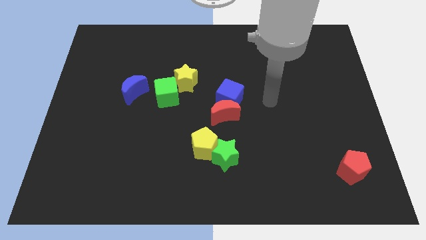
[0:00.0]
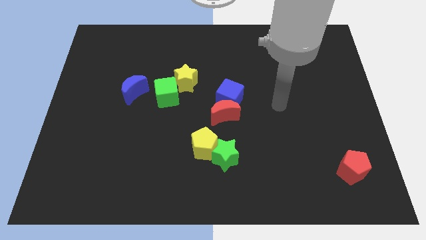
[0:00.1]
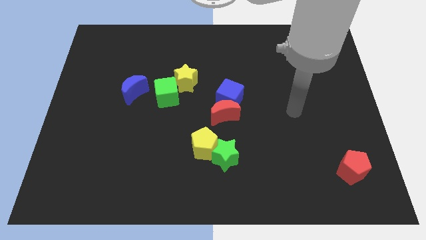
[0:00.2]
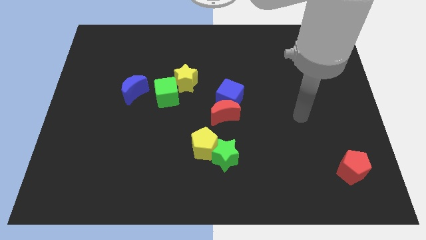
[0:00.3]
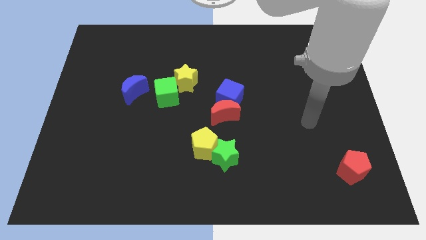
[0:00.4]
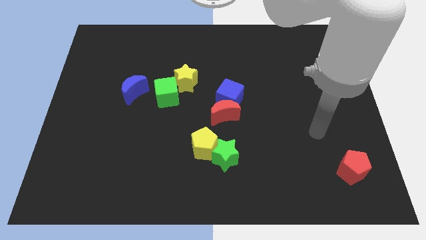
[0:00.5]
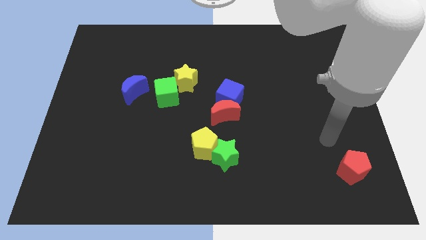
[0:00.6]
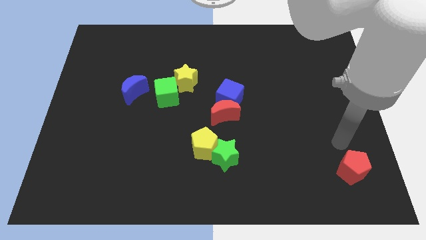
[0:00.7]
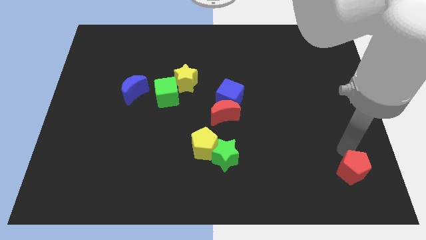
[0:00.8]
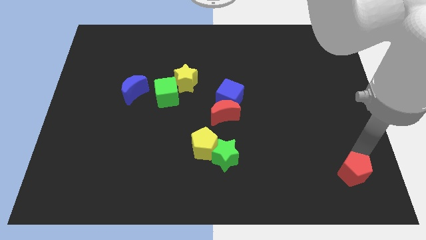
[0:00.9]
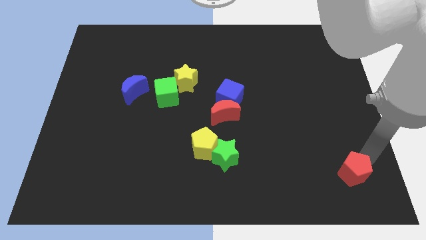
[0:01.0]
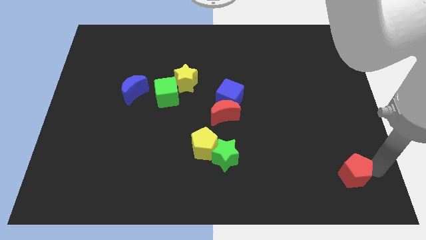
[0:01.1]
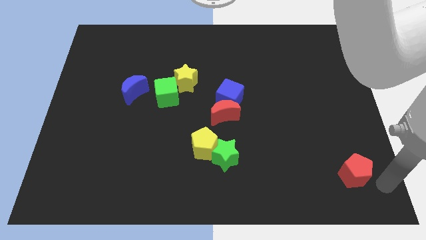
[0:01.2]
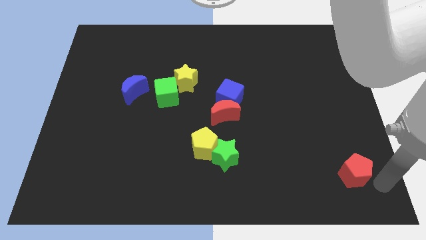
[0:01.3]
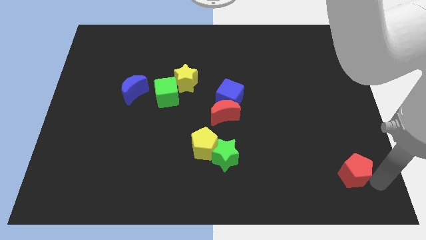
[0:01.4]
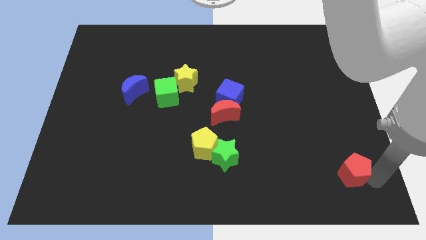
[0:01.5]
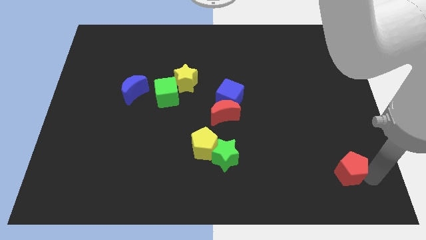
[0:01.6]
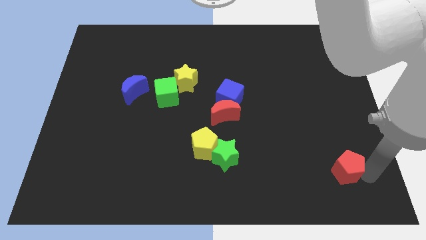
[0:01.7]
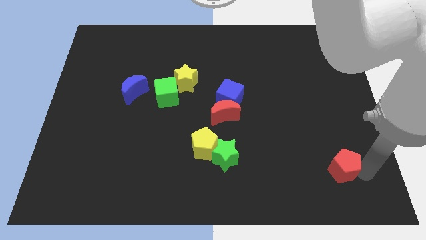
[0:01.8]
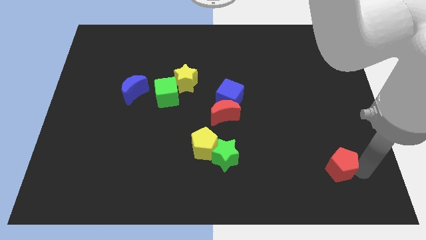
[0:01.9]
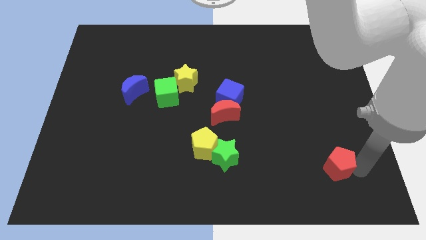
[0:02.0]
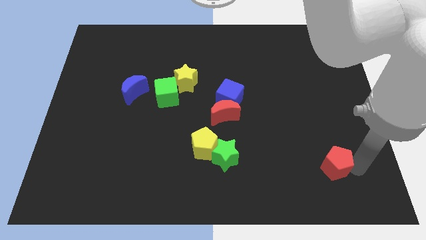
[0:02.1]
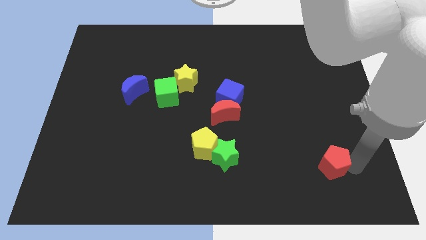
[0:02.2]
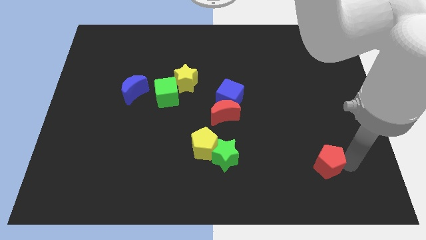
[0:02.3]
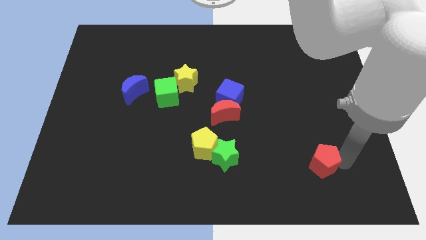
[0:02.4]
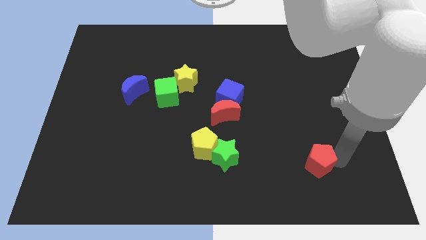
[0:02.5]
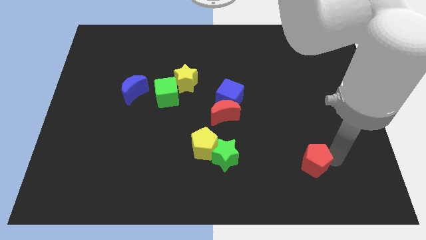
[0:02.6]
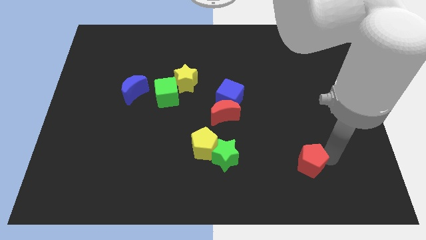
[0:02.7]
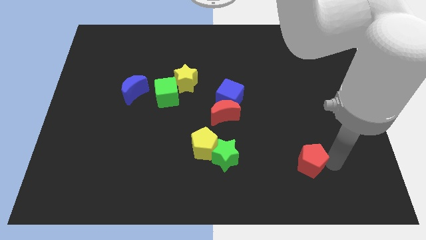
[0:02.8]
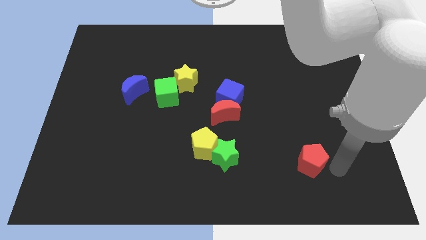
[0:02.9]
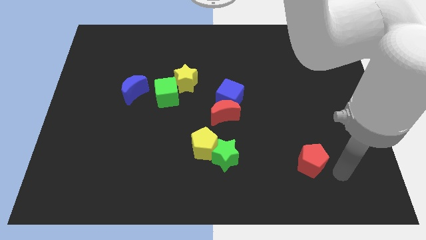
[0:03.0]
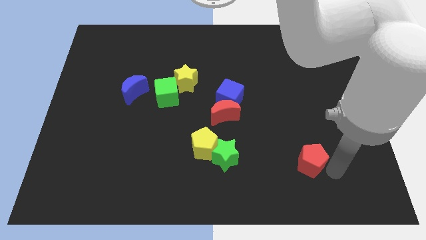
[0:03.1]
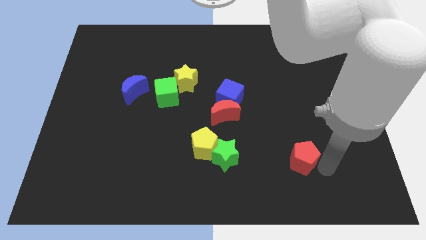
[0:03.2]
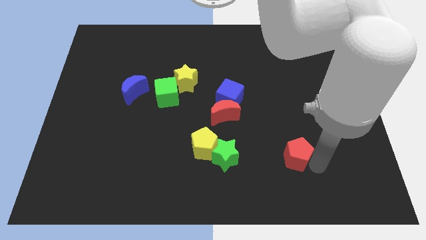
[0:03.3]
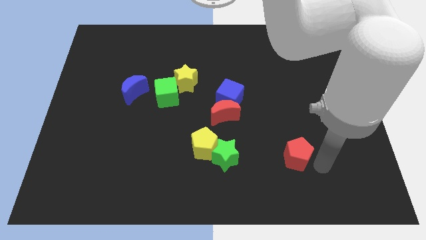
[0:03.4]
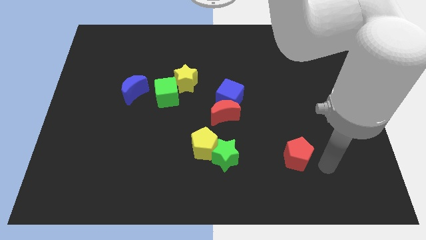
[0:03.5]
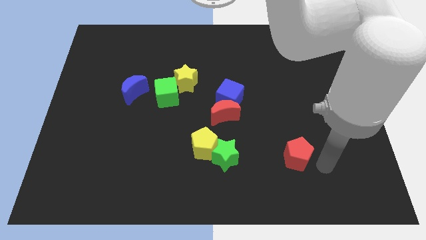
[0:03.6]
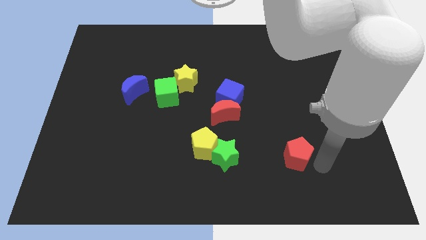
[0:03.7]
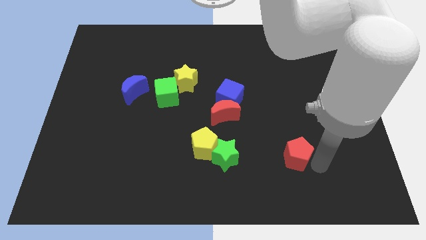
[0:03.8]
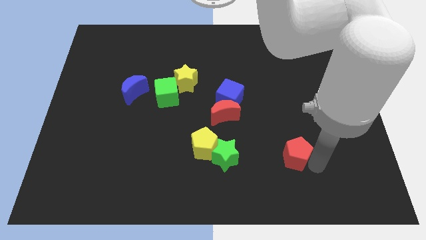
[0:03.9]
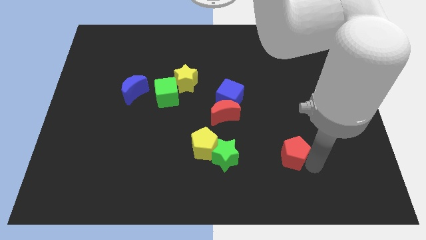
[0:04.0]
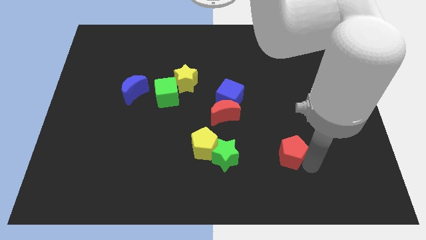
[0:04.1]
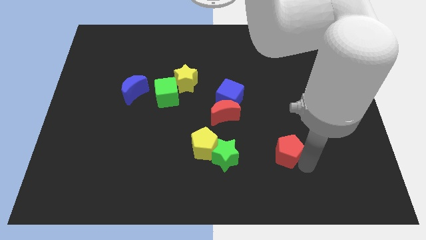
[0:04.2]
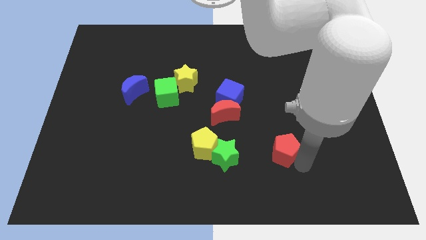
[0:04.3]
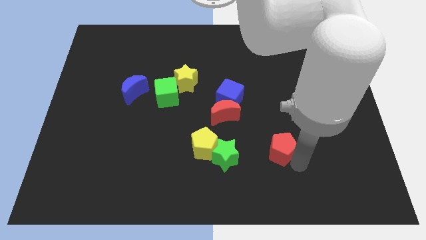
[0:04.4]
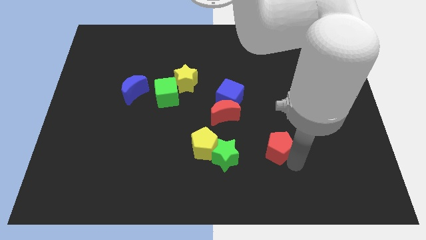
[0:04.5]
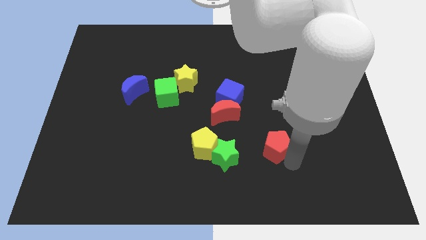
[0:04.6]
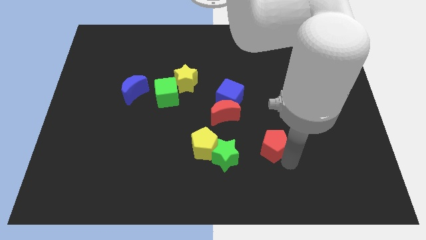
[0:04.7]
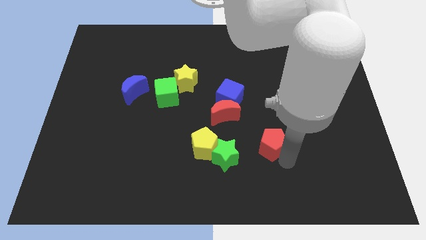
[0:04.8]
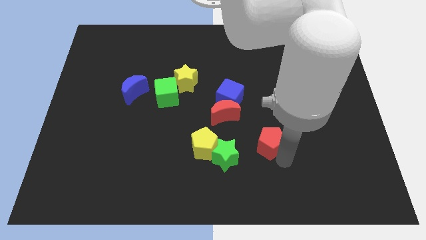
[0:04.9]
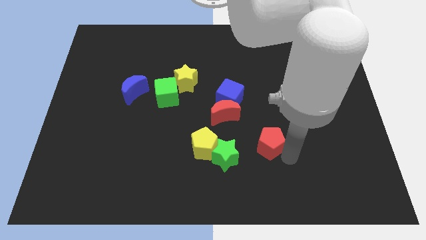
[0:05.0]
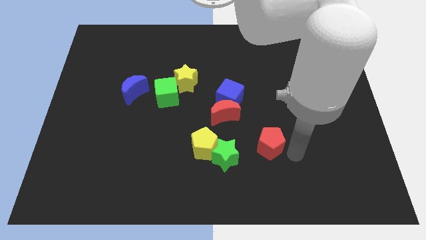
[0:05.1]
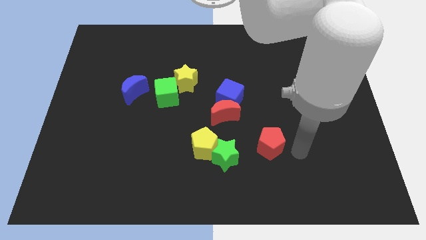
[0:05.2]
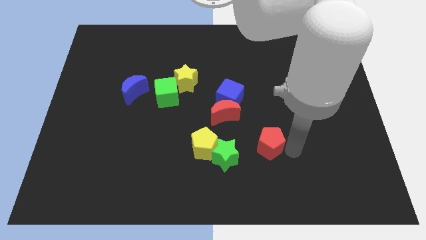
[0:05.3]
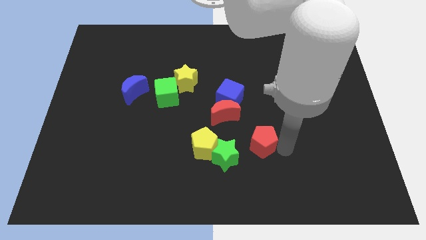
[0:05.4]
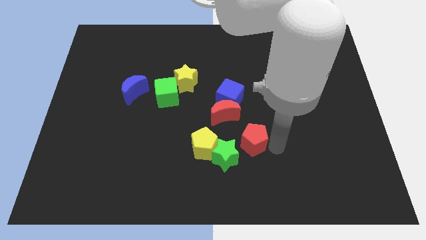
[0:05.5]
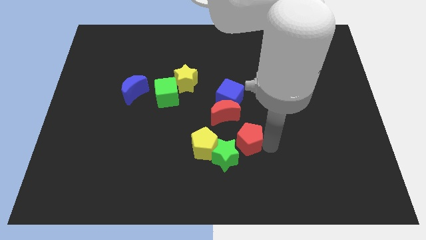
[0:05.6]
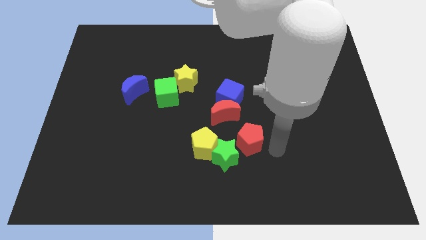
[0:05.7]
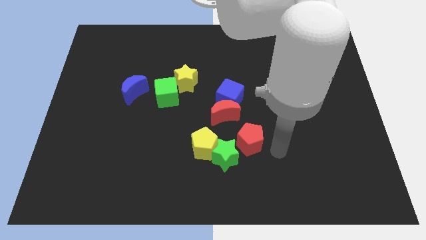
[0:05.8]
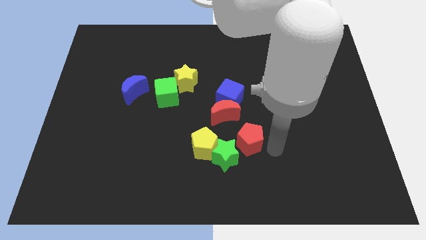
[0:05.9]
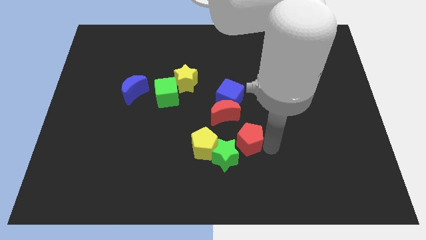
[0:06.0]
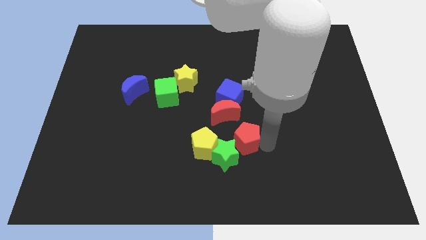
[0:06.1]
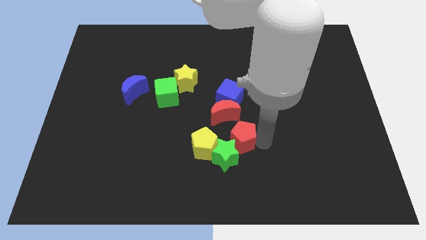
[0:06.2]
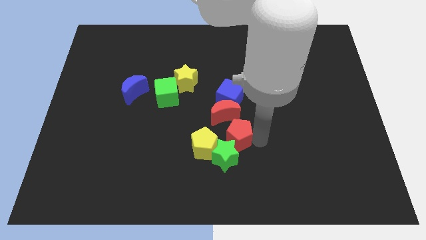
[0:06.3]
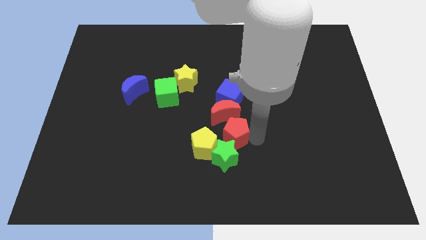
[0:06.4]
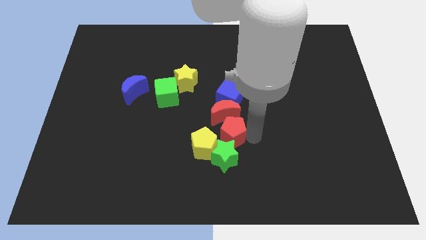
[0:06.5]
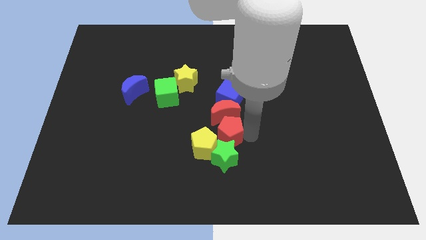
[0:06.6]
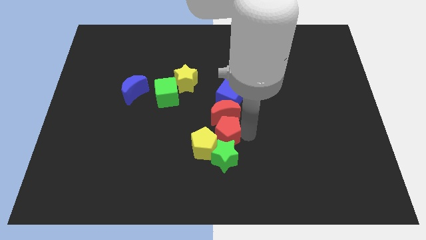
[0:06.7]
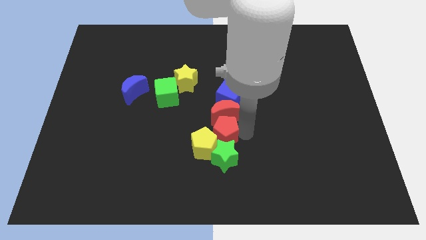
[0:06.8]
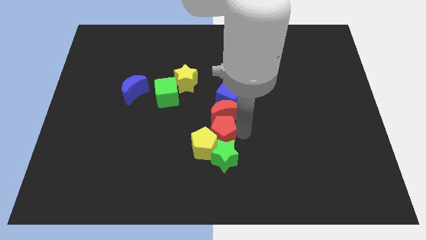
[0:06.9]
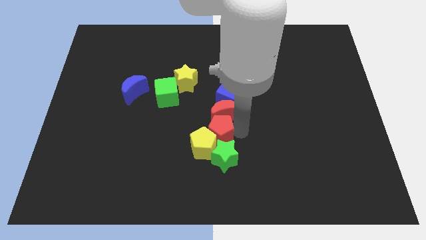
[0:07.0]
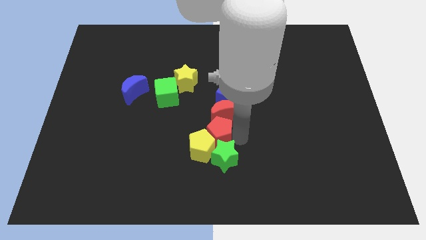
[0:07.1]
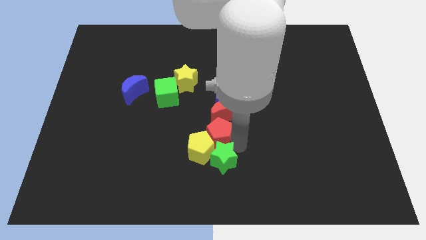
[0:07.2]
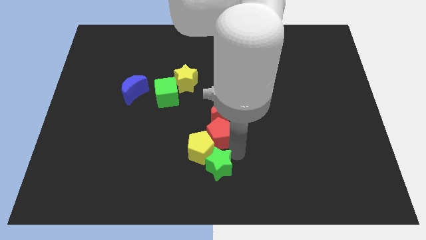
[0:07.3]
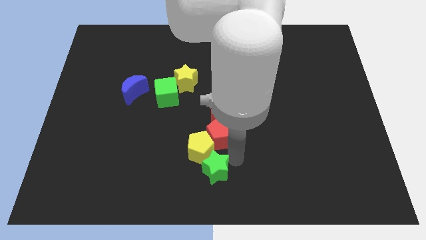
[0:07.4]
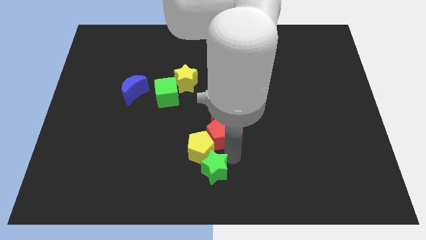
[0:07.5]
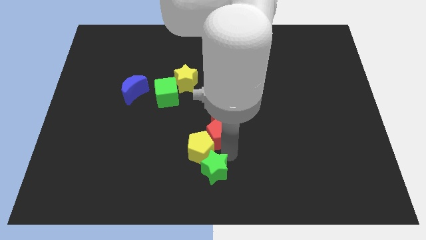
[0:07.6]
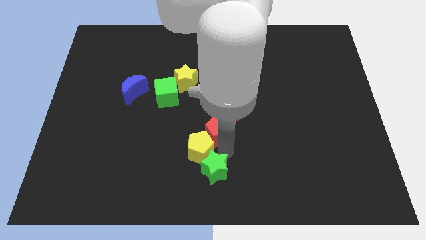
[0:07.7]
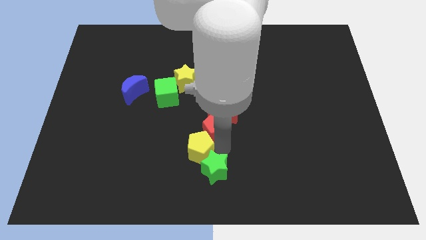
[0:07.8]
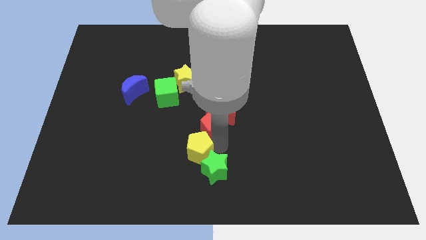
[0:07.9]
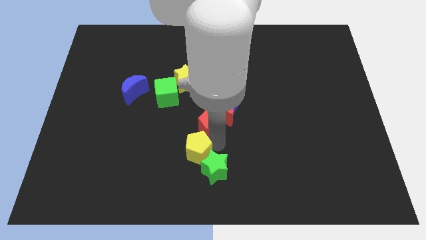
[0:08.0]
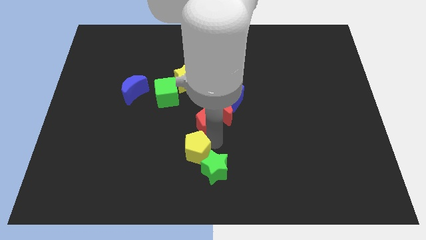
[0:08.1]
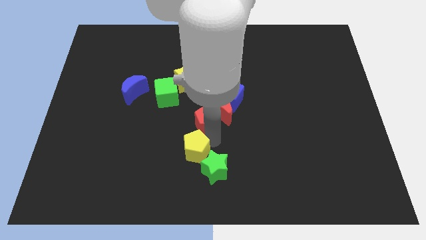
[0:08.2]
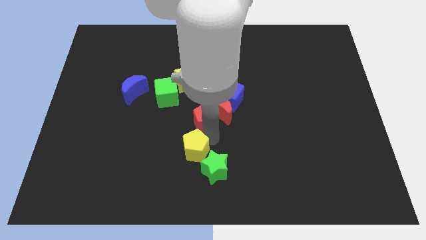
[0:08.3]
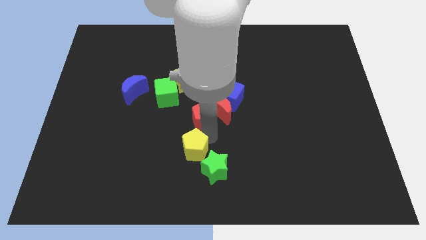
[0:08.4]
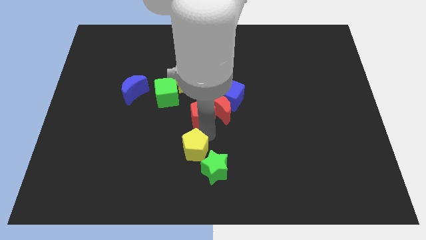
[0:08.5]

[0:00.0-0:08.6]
move the red pentagon diagonally down and to the right of the yellow star
